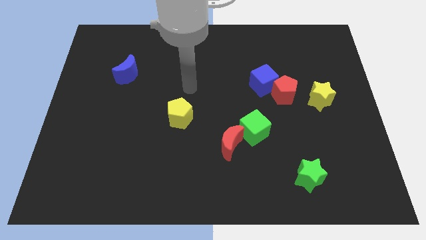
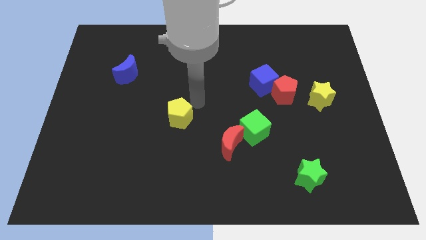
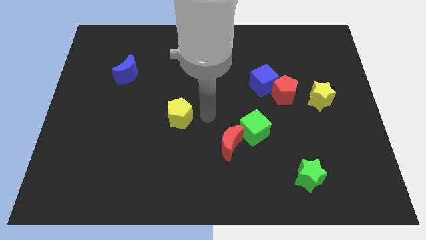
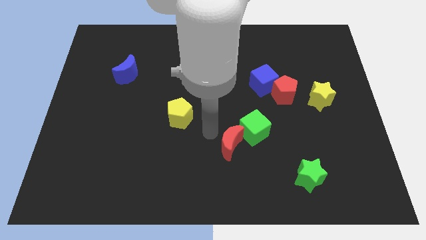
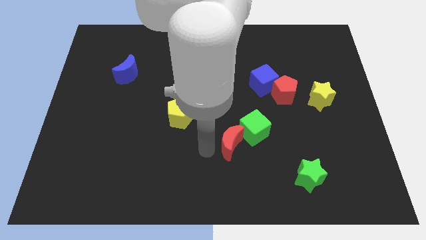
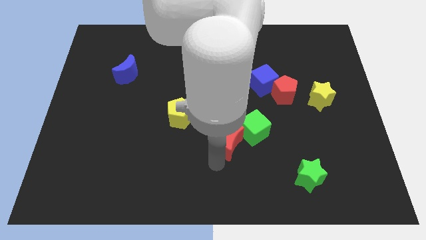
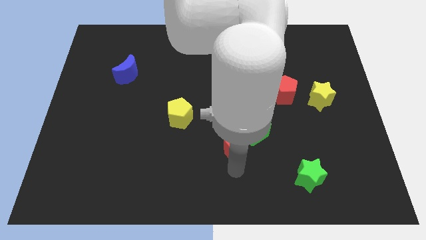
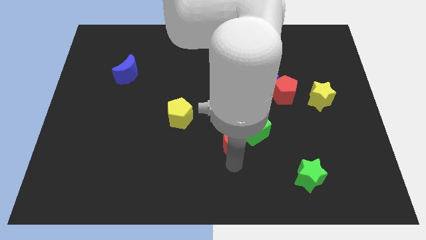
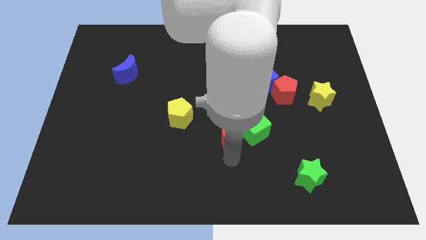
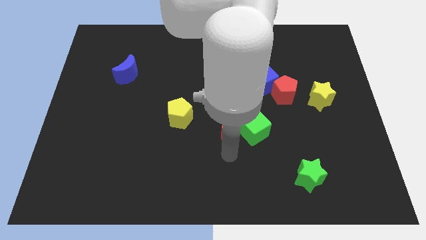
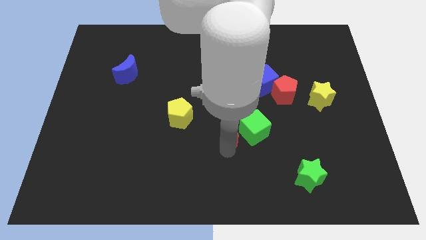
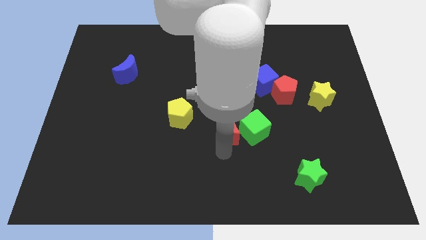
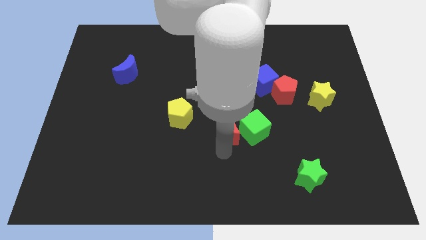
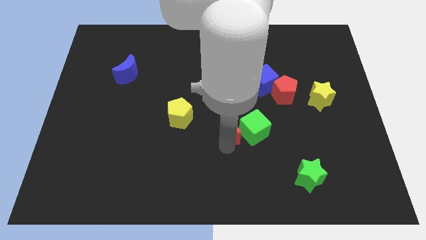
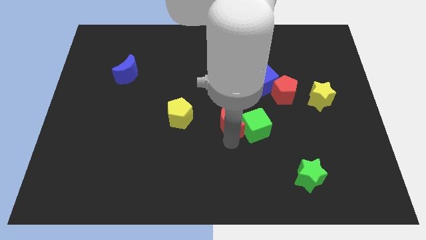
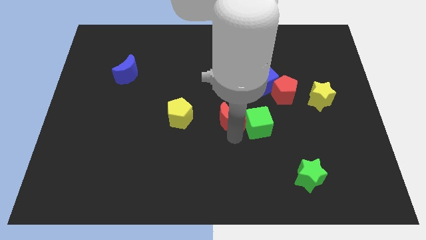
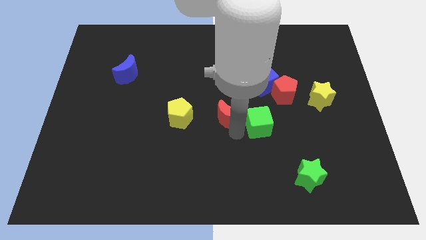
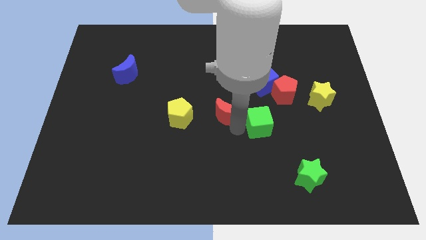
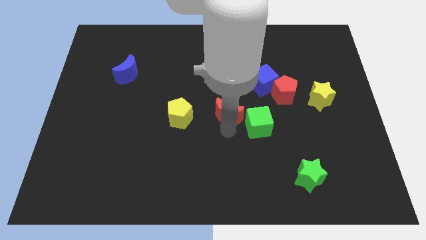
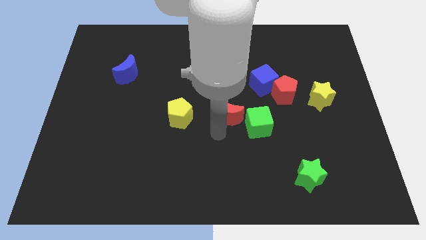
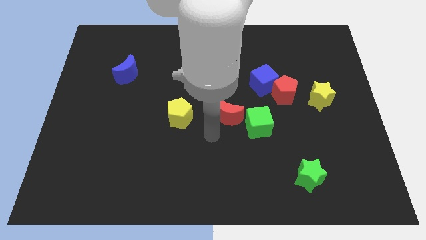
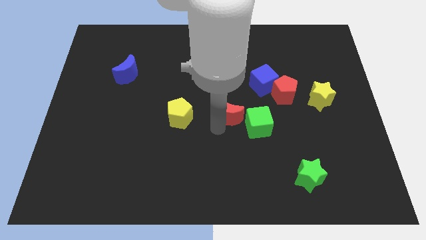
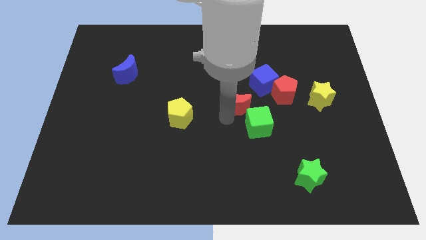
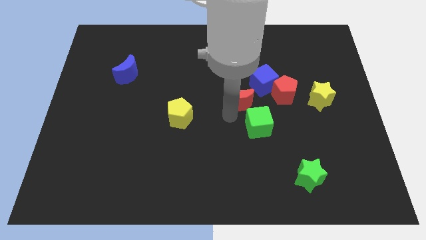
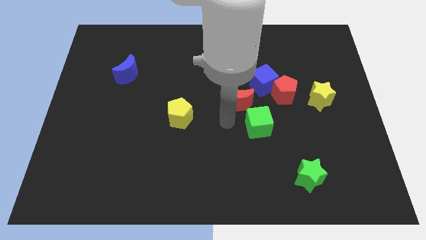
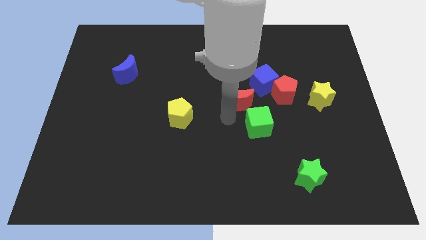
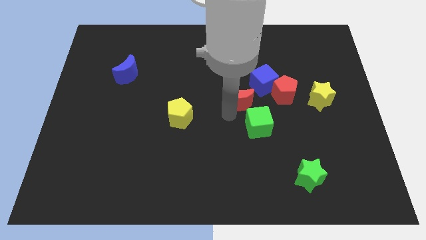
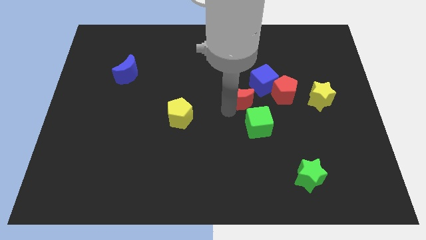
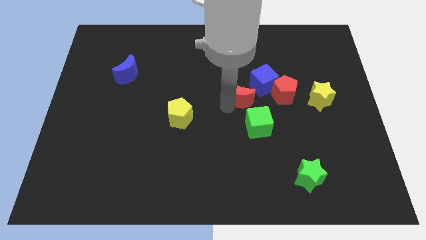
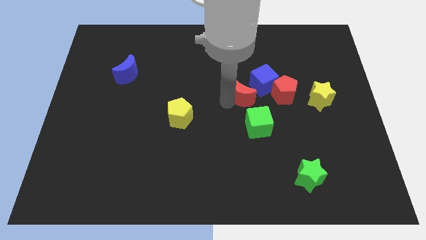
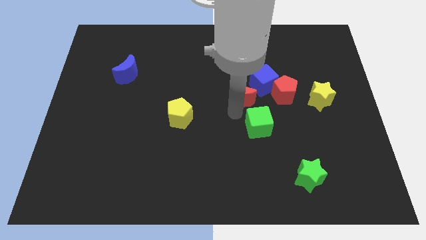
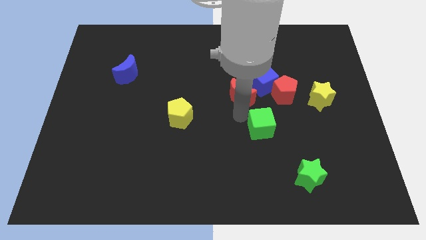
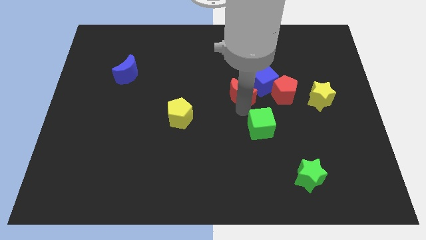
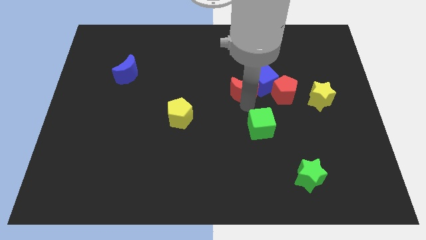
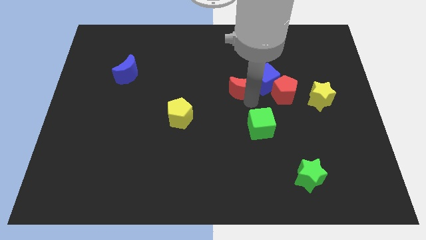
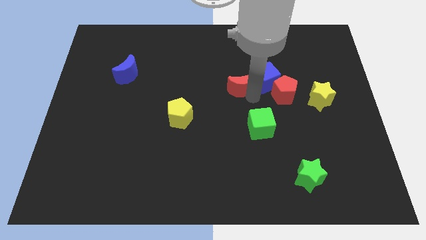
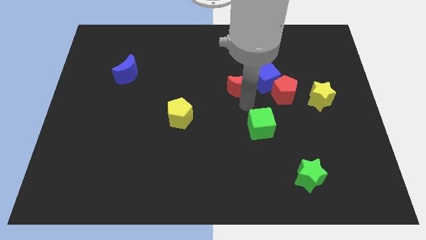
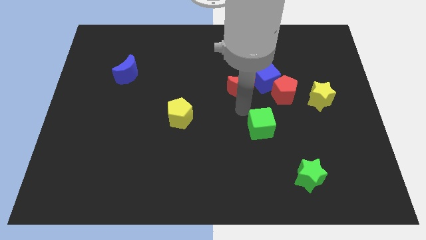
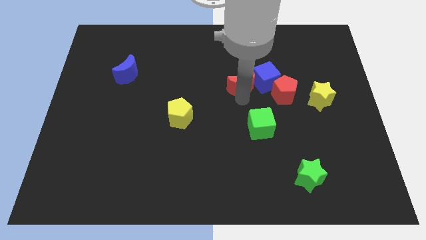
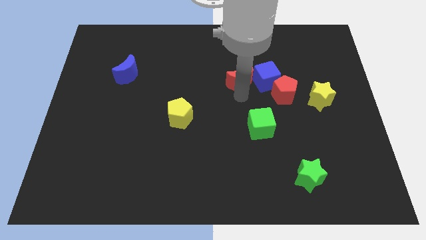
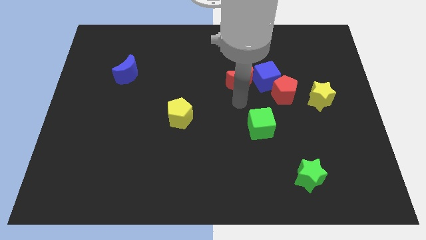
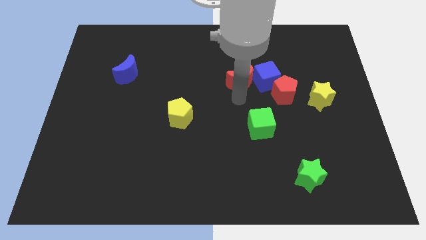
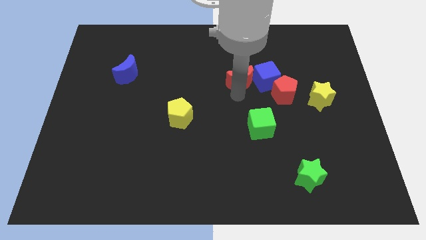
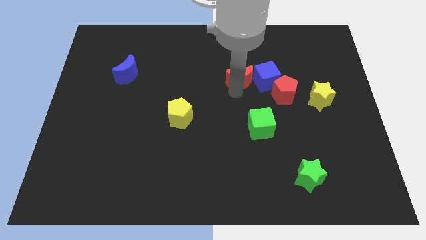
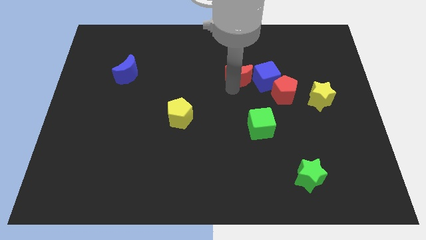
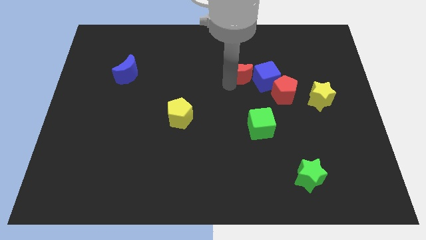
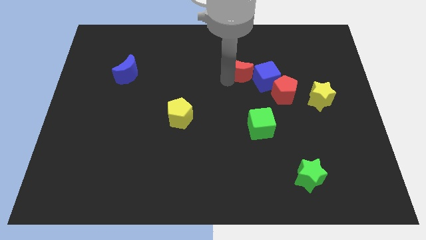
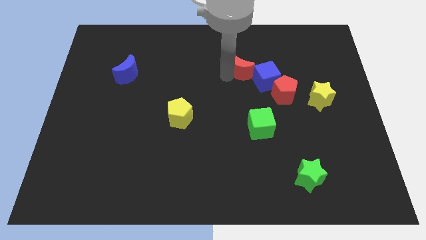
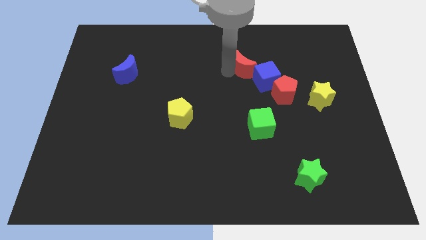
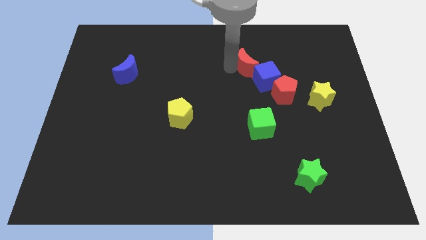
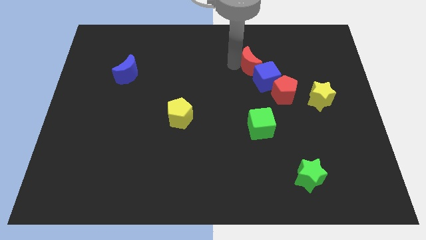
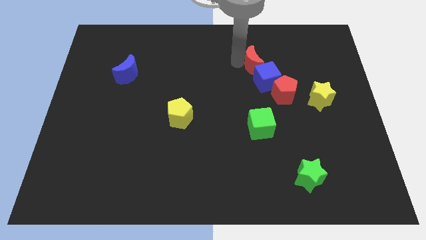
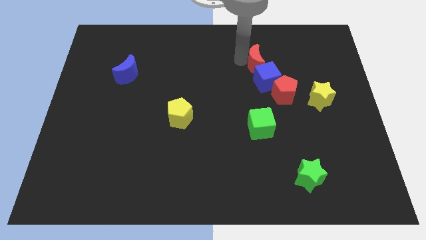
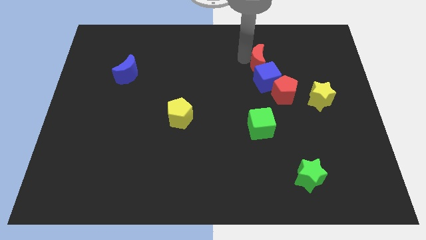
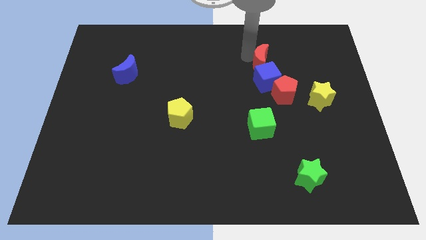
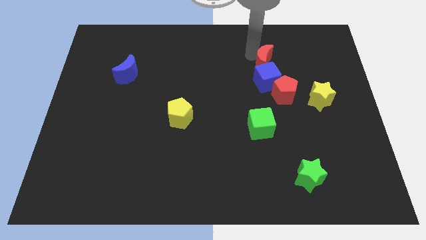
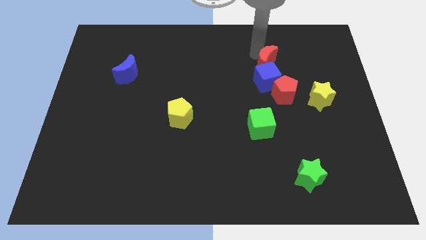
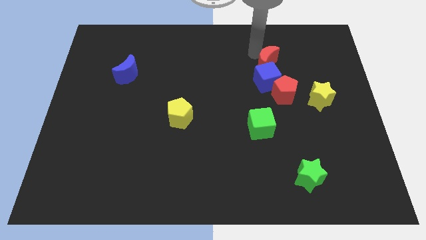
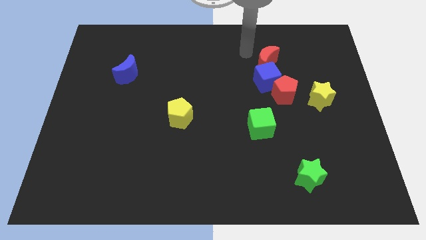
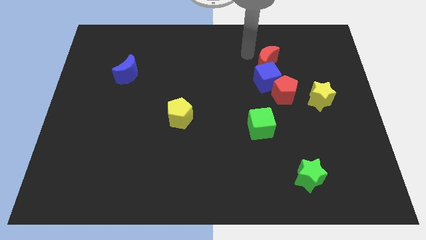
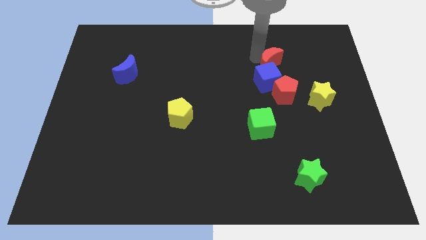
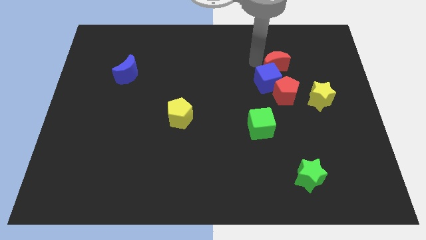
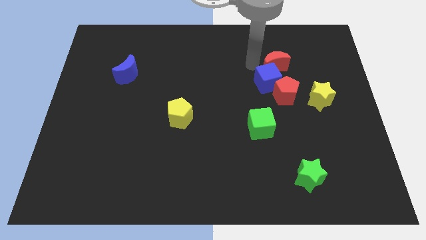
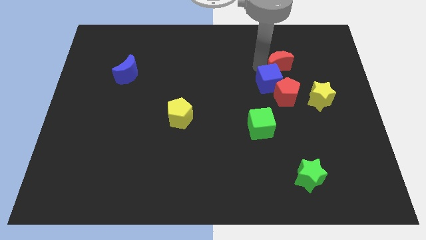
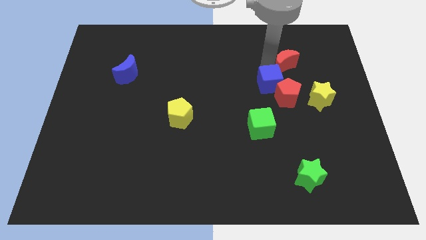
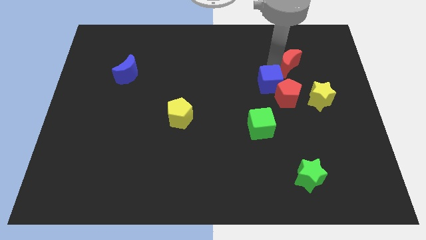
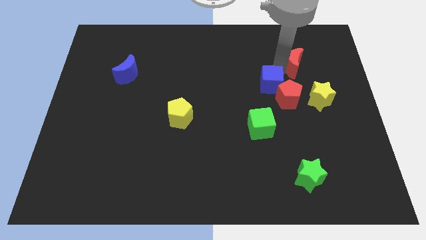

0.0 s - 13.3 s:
push the red moon to the top side of the yellow star
